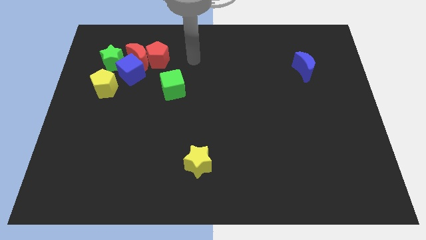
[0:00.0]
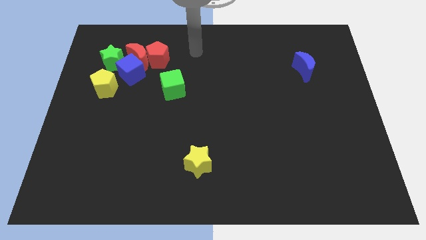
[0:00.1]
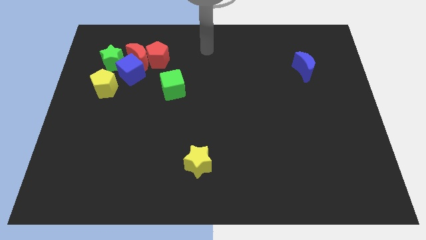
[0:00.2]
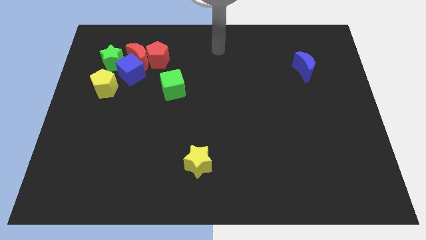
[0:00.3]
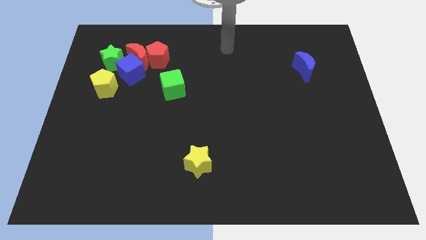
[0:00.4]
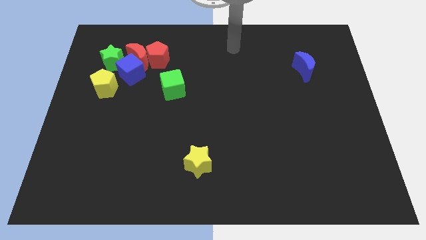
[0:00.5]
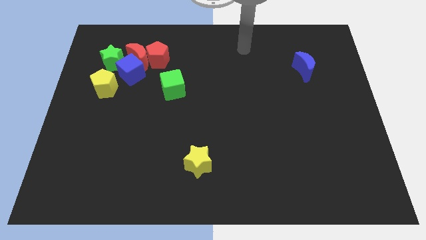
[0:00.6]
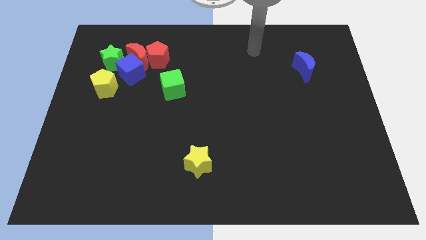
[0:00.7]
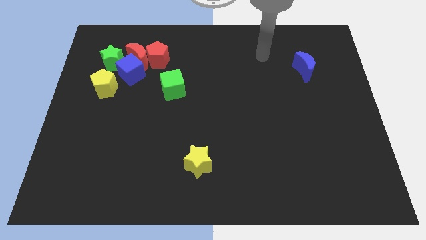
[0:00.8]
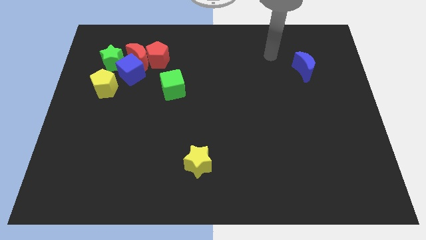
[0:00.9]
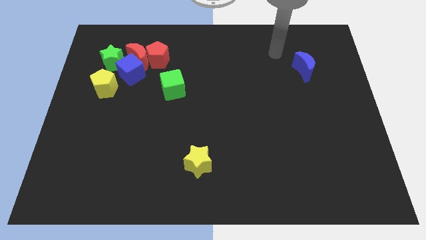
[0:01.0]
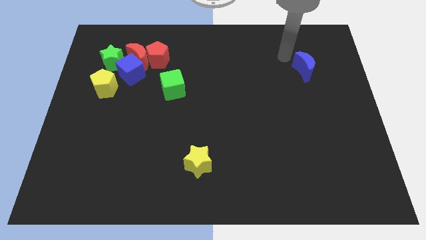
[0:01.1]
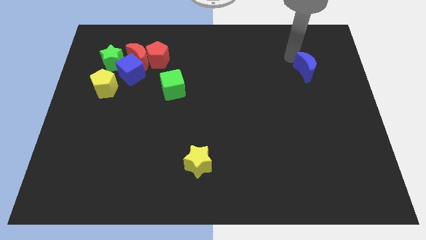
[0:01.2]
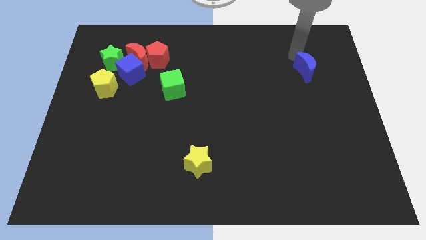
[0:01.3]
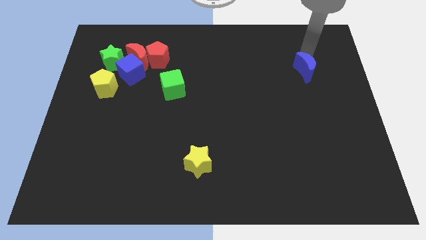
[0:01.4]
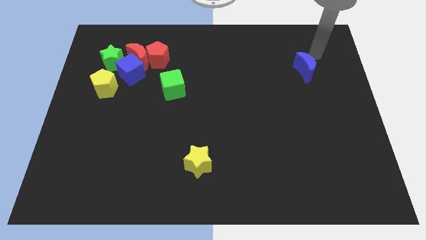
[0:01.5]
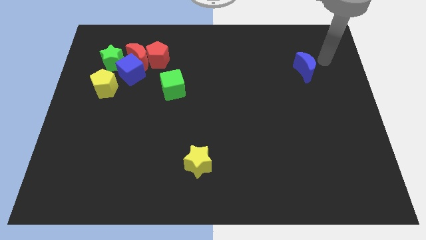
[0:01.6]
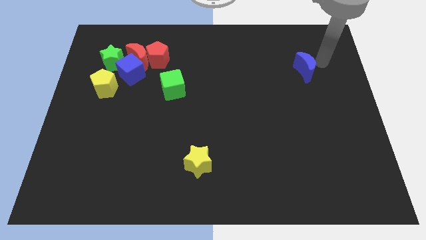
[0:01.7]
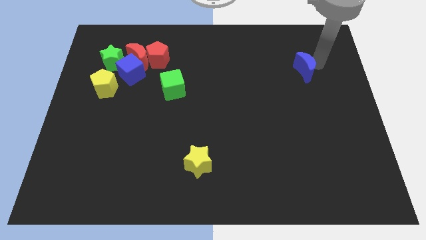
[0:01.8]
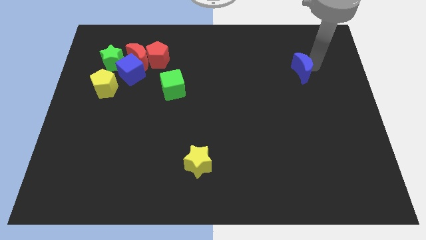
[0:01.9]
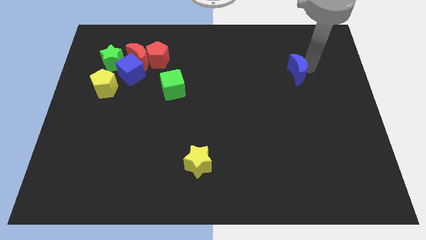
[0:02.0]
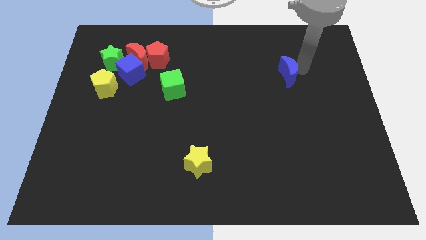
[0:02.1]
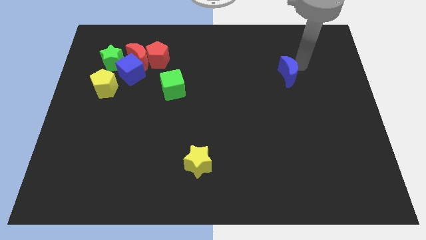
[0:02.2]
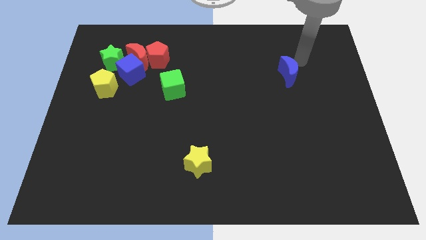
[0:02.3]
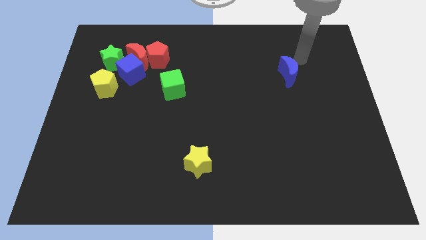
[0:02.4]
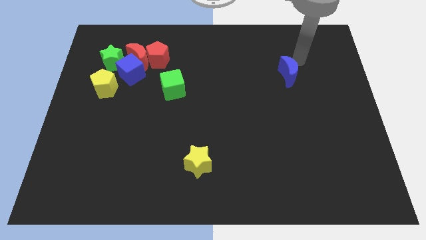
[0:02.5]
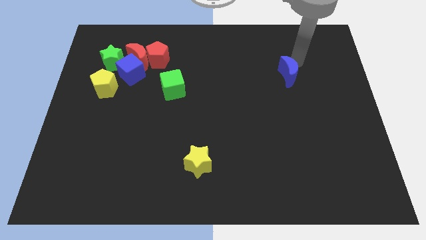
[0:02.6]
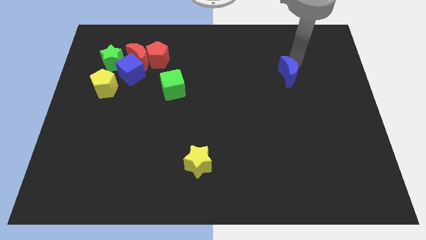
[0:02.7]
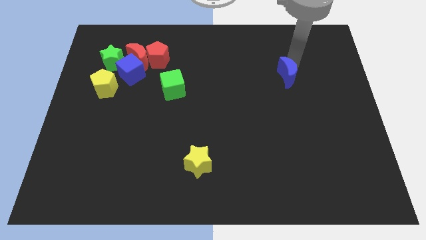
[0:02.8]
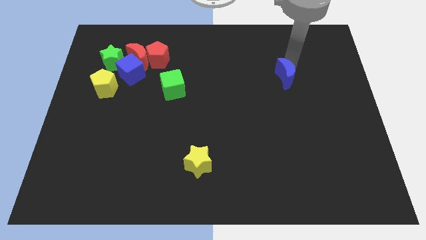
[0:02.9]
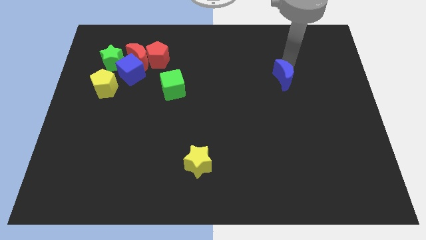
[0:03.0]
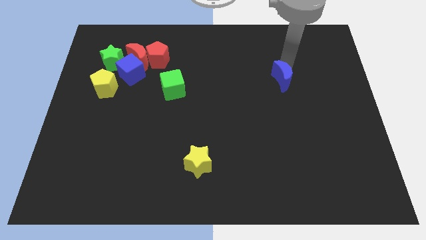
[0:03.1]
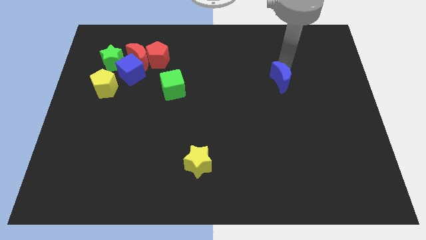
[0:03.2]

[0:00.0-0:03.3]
push the blue moon a little bit diagonally downwards and to the left

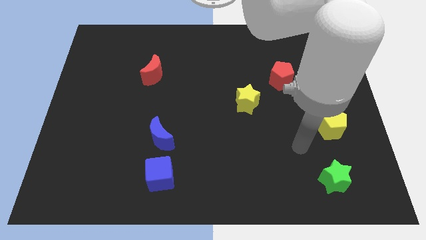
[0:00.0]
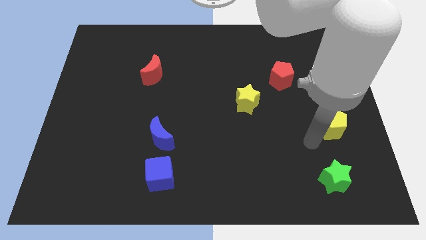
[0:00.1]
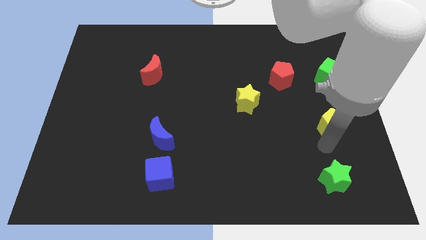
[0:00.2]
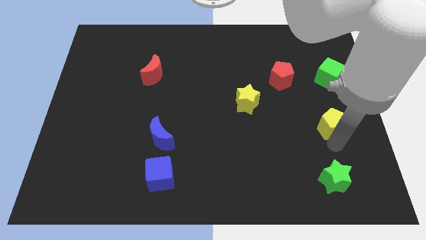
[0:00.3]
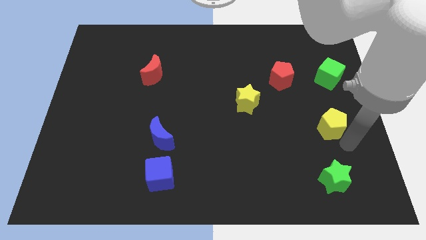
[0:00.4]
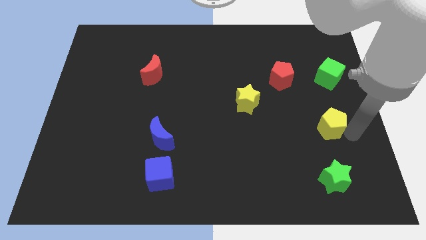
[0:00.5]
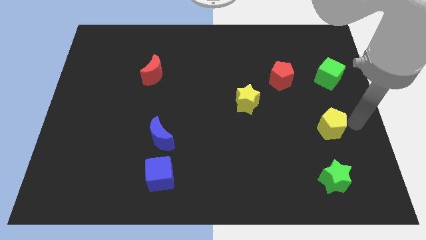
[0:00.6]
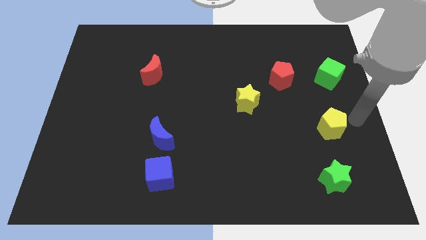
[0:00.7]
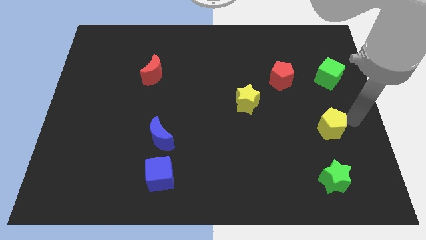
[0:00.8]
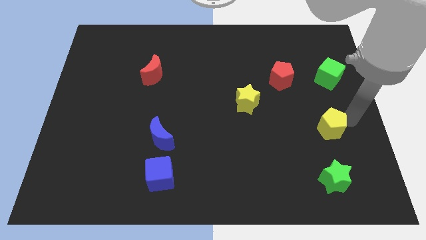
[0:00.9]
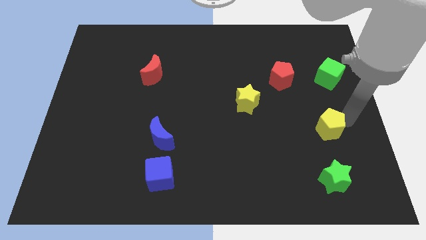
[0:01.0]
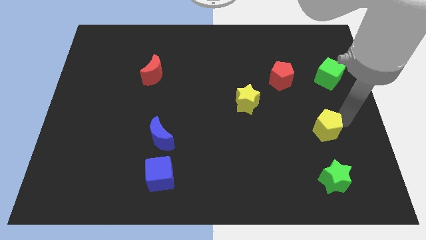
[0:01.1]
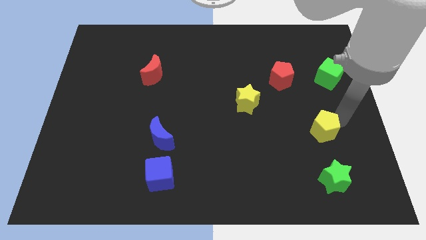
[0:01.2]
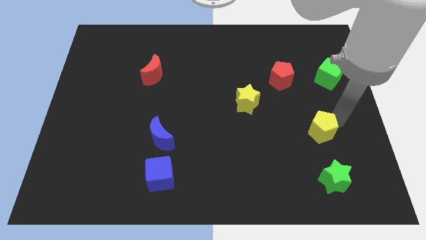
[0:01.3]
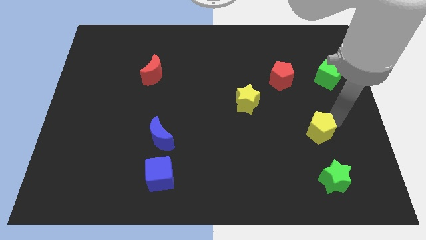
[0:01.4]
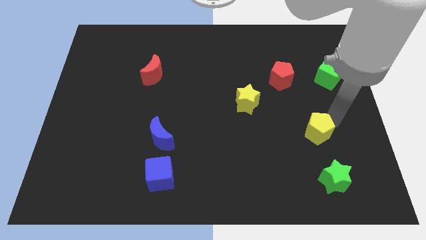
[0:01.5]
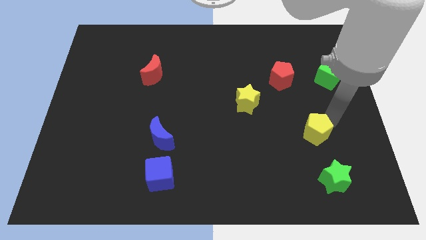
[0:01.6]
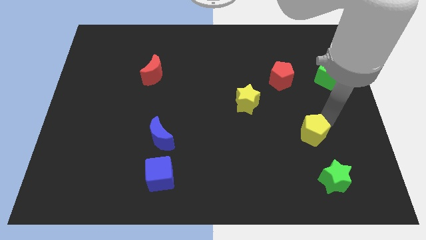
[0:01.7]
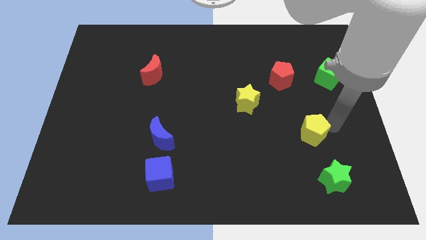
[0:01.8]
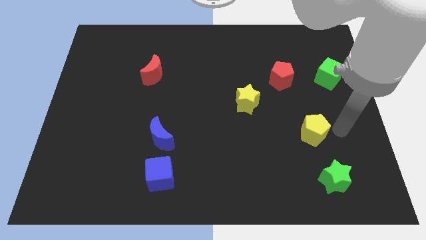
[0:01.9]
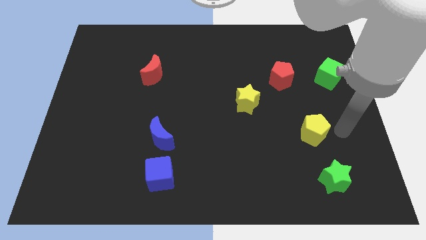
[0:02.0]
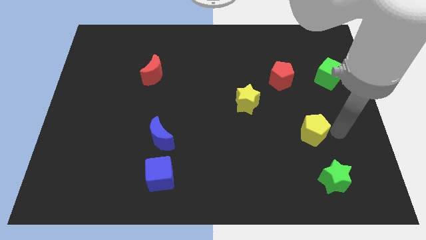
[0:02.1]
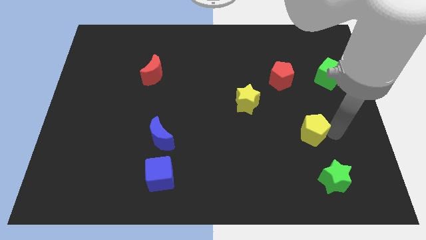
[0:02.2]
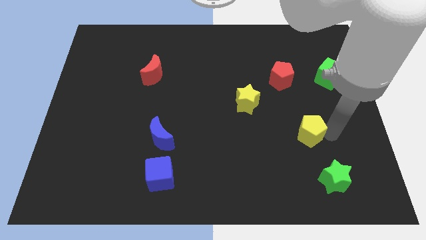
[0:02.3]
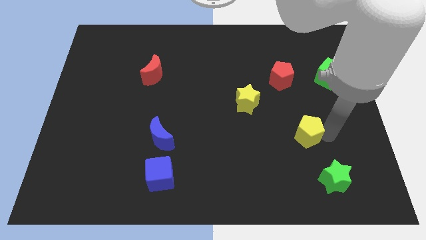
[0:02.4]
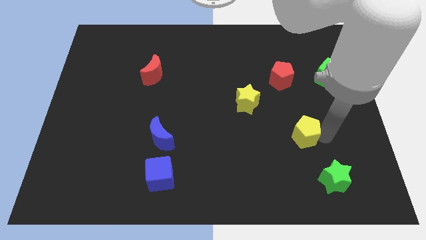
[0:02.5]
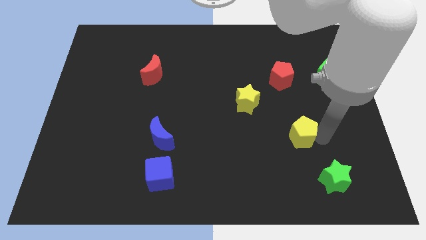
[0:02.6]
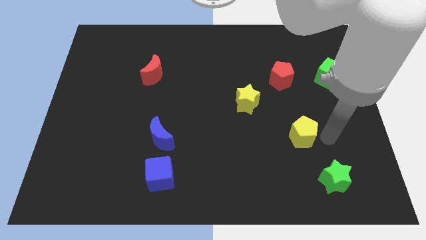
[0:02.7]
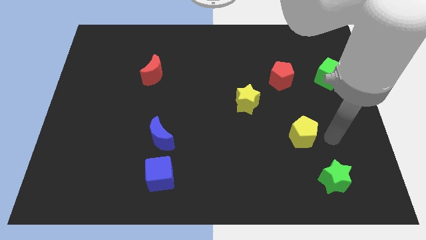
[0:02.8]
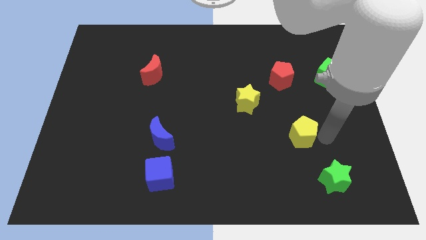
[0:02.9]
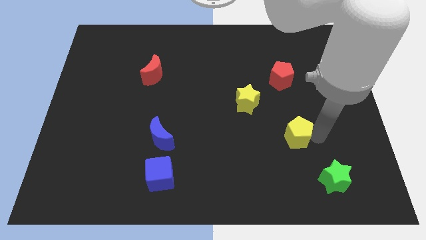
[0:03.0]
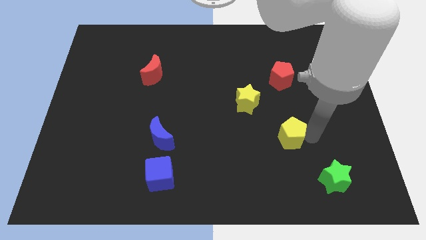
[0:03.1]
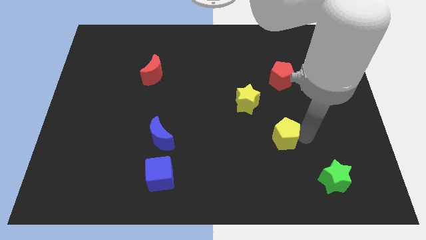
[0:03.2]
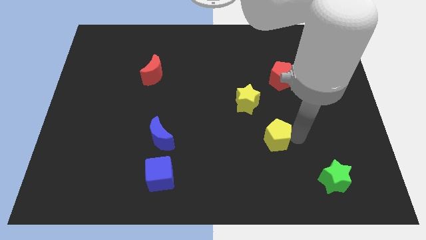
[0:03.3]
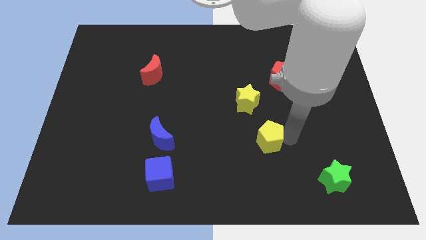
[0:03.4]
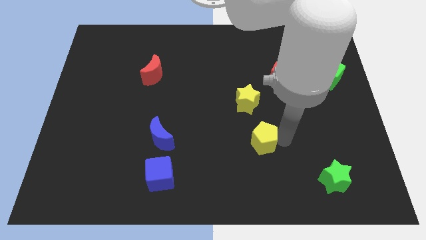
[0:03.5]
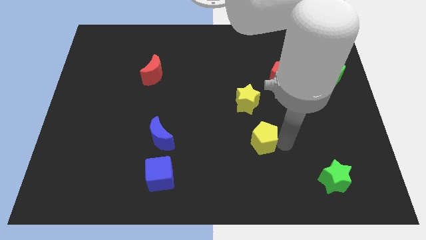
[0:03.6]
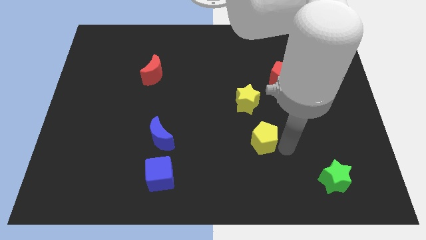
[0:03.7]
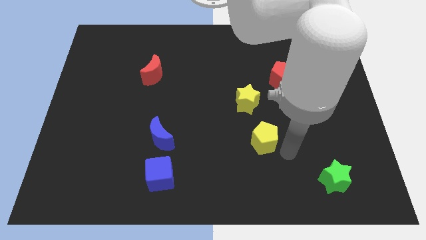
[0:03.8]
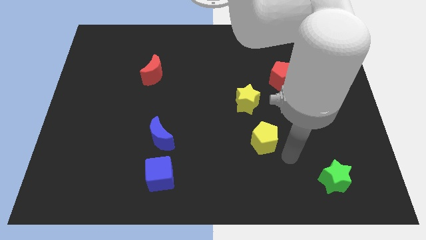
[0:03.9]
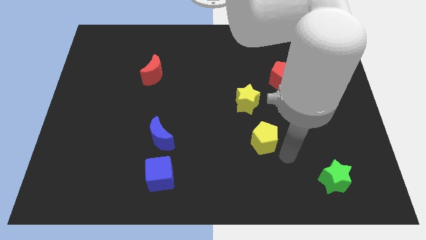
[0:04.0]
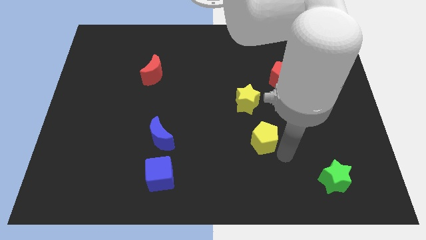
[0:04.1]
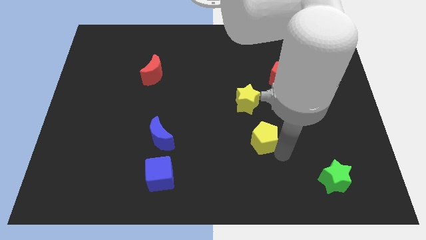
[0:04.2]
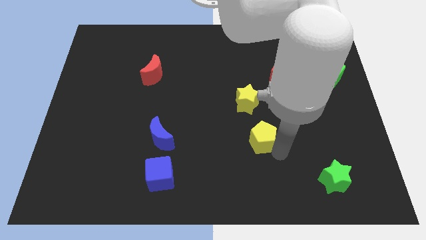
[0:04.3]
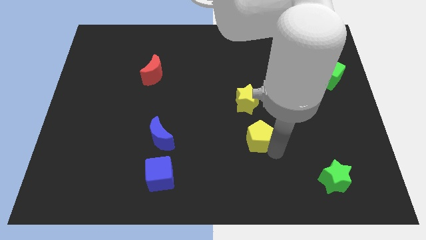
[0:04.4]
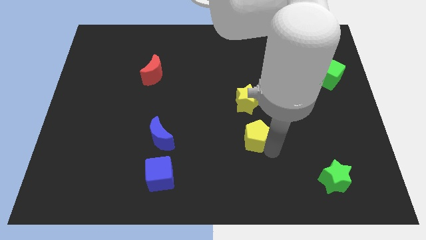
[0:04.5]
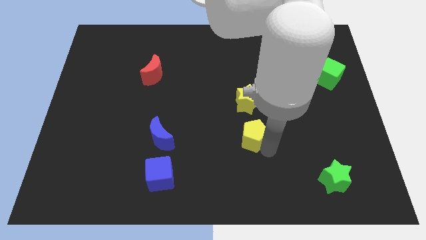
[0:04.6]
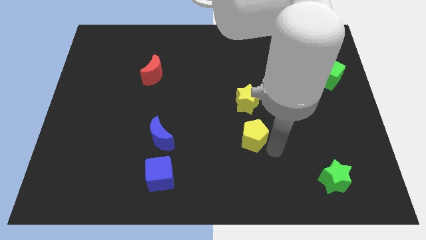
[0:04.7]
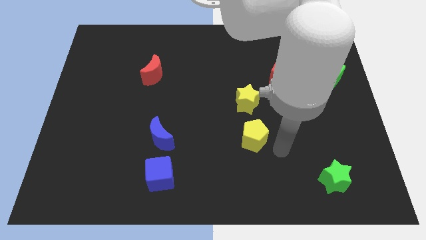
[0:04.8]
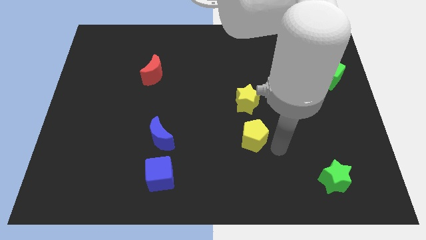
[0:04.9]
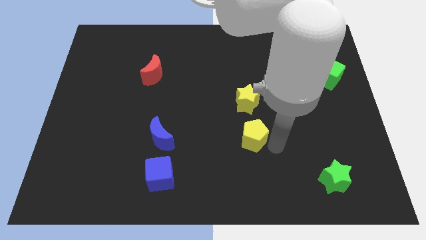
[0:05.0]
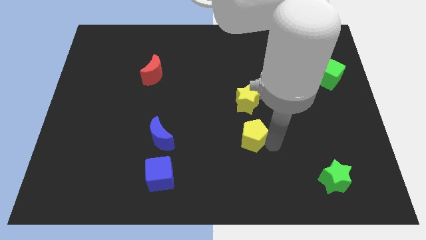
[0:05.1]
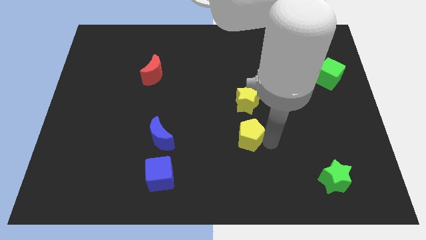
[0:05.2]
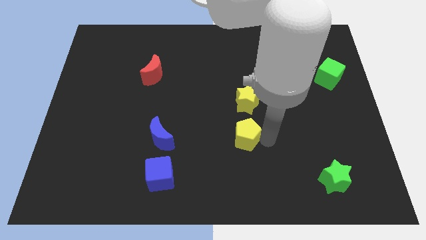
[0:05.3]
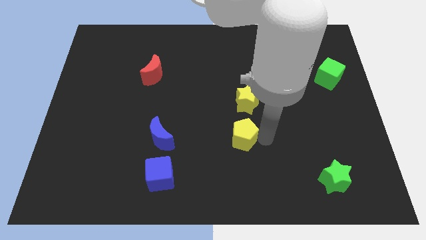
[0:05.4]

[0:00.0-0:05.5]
push the yellow pentagon left
